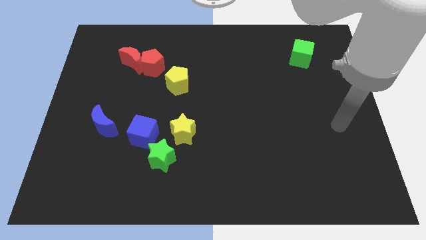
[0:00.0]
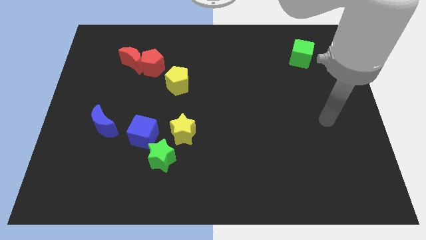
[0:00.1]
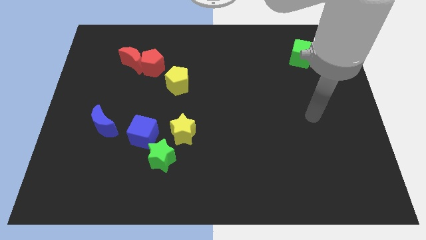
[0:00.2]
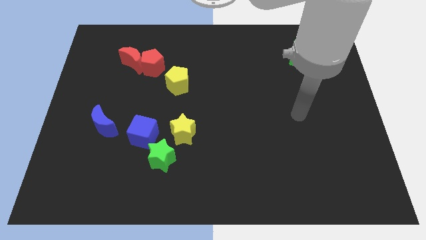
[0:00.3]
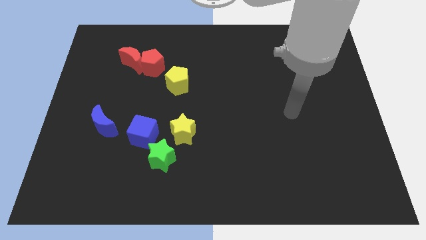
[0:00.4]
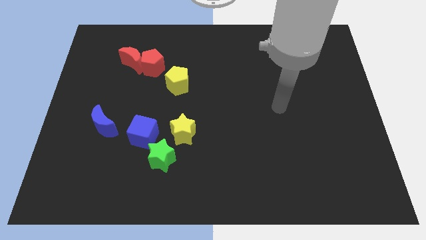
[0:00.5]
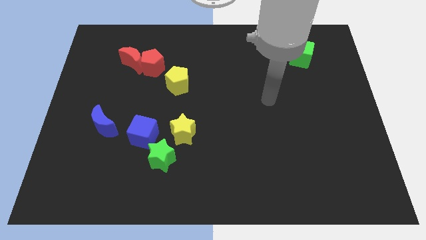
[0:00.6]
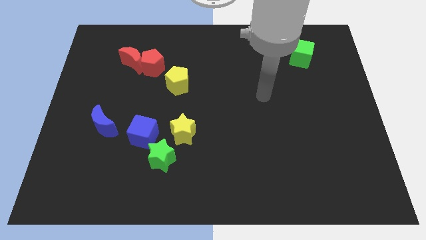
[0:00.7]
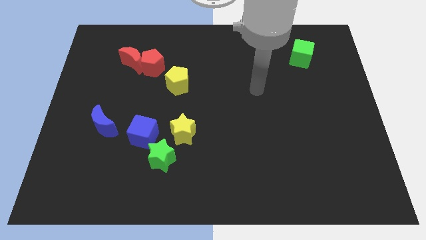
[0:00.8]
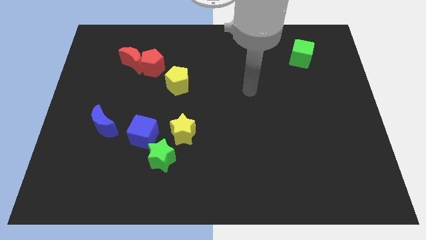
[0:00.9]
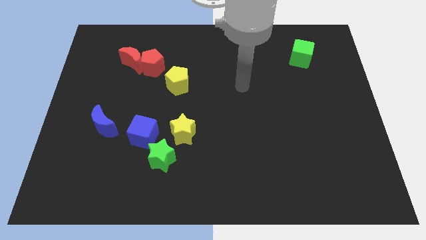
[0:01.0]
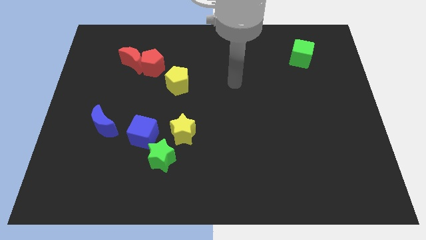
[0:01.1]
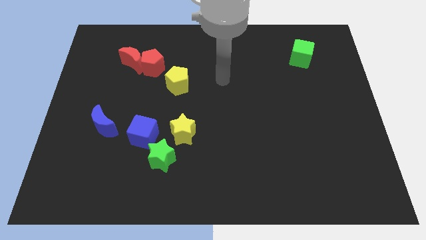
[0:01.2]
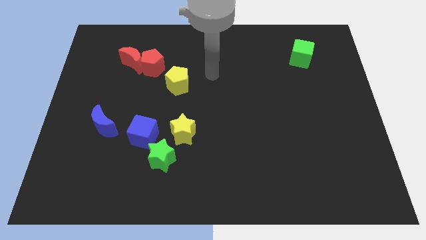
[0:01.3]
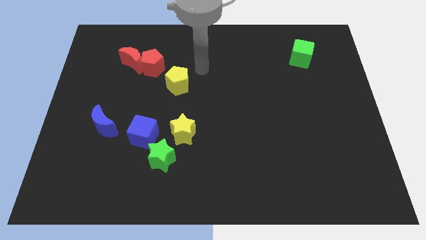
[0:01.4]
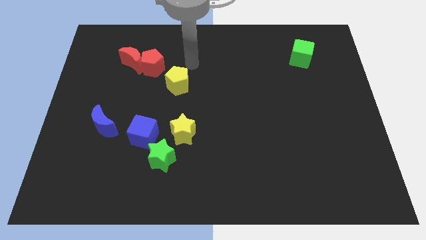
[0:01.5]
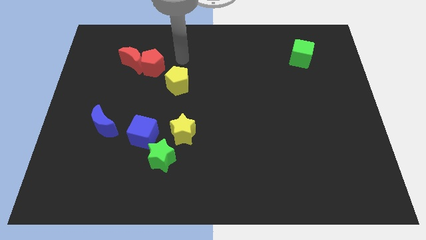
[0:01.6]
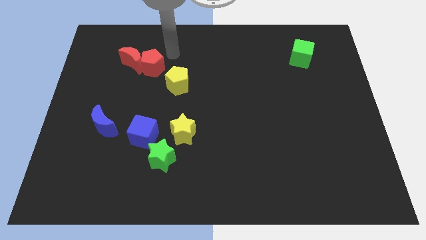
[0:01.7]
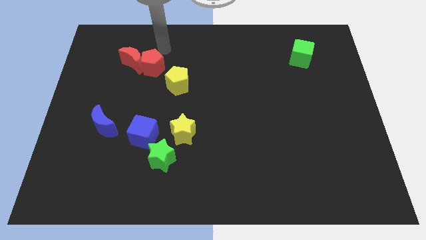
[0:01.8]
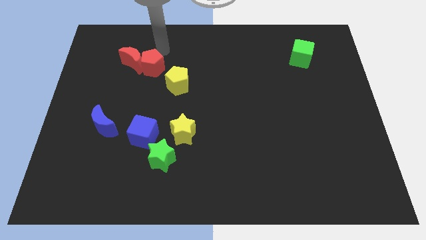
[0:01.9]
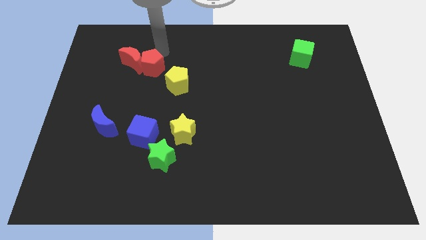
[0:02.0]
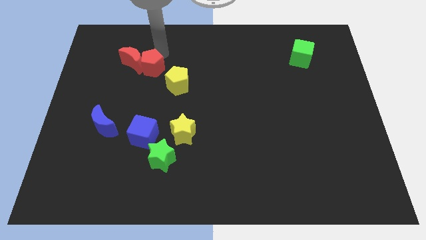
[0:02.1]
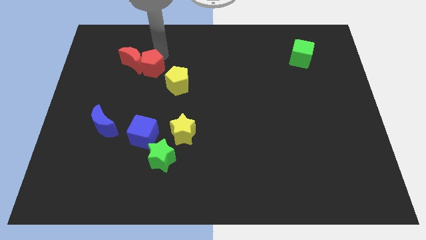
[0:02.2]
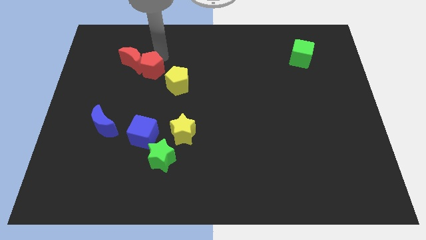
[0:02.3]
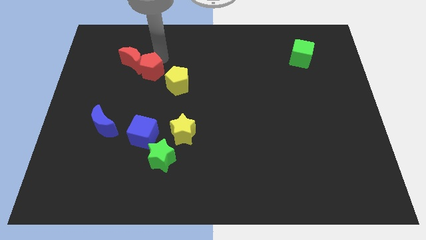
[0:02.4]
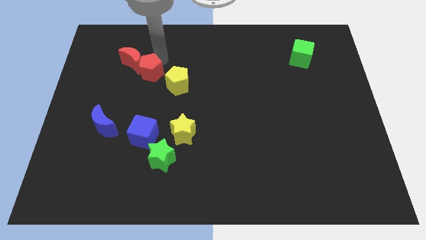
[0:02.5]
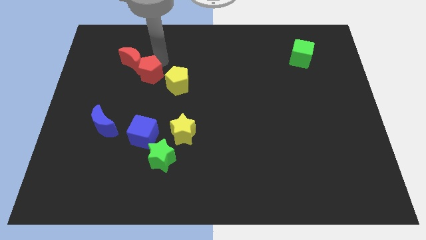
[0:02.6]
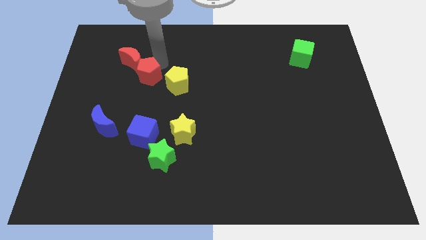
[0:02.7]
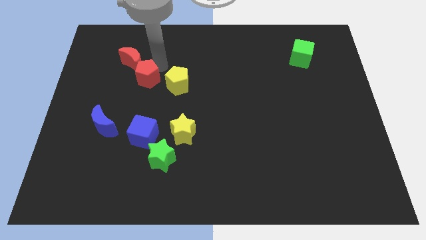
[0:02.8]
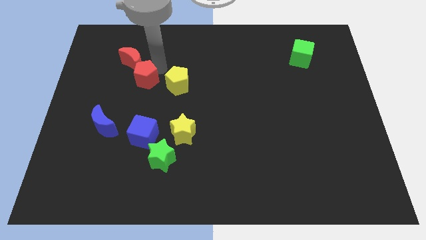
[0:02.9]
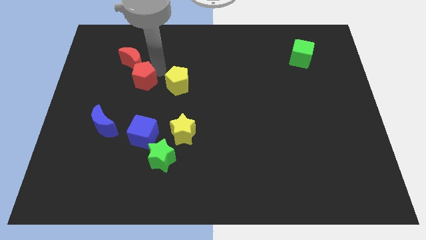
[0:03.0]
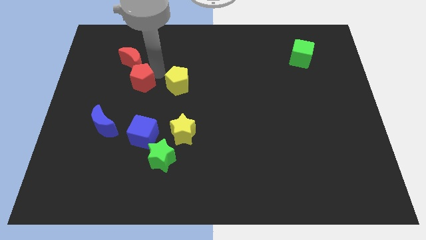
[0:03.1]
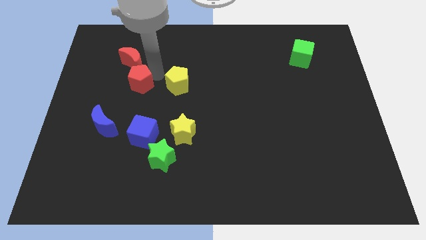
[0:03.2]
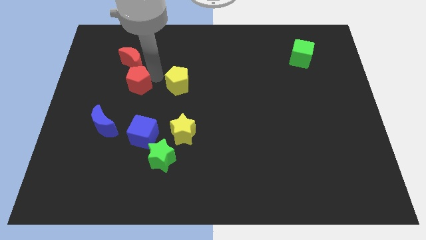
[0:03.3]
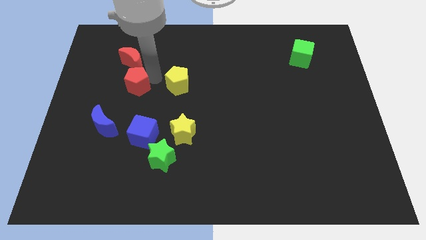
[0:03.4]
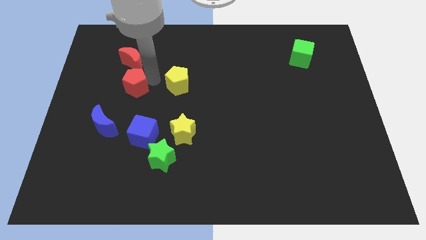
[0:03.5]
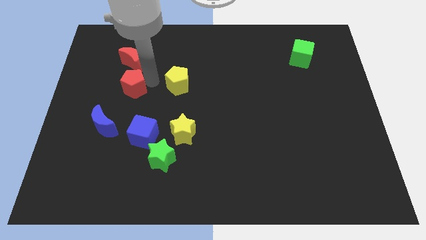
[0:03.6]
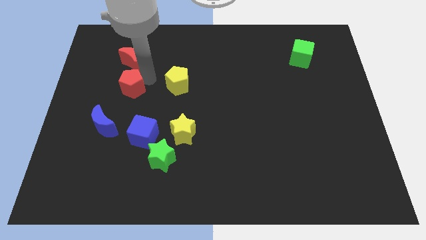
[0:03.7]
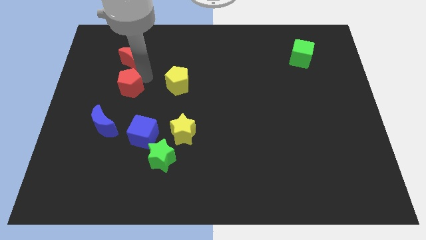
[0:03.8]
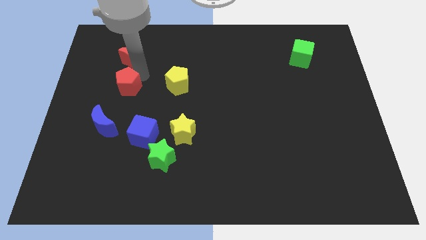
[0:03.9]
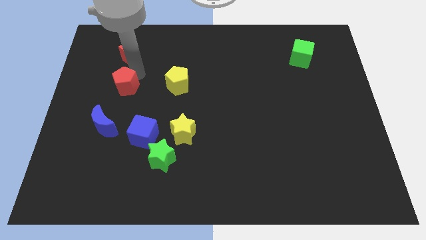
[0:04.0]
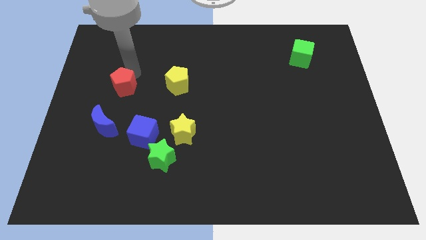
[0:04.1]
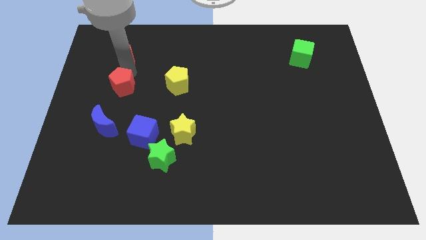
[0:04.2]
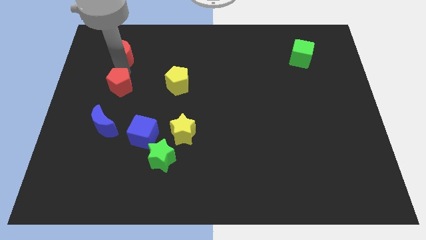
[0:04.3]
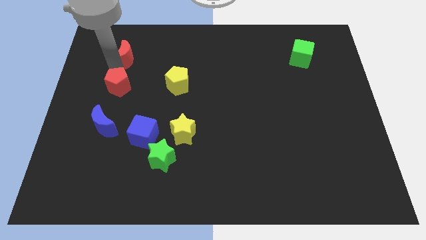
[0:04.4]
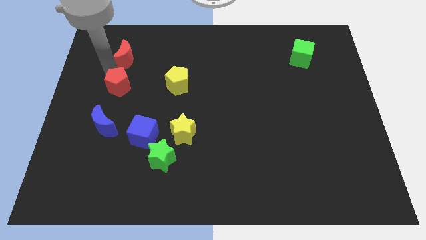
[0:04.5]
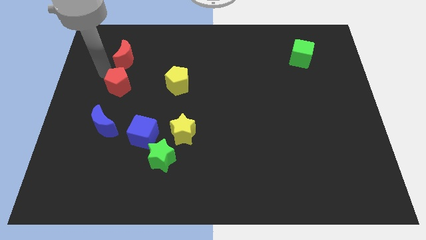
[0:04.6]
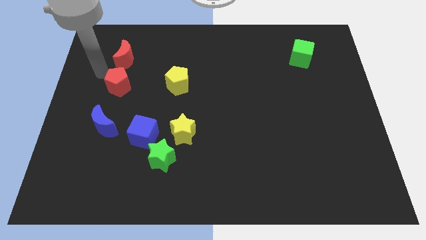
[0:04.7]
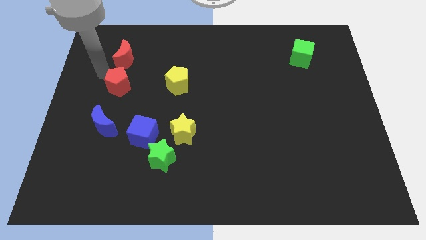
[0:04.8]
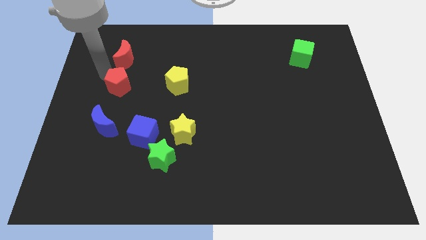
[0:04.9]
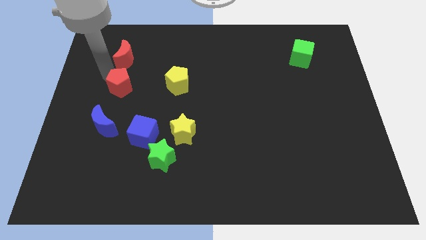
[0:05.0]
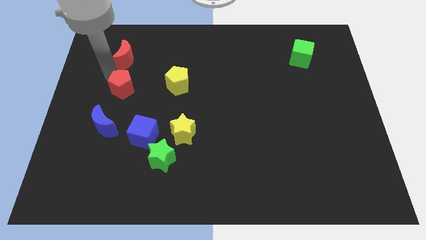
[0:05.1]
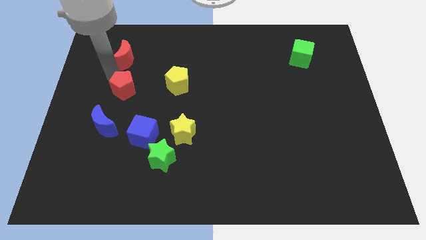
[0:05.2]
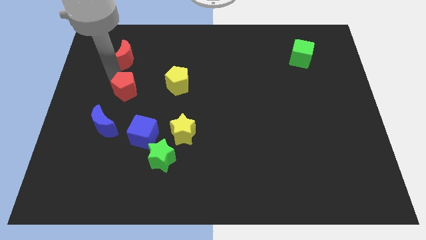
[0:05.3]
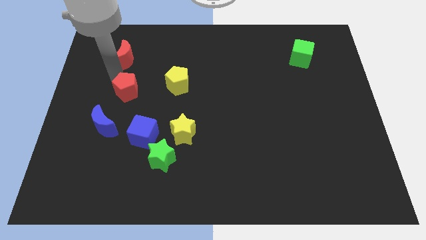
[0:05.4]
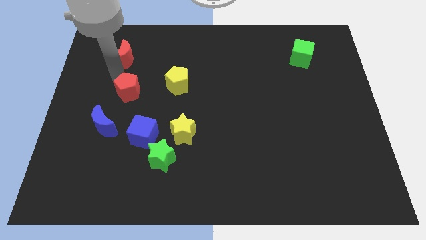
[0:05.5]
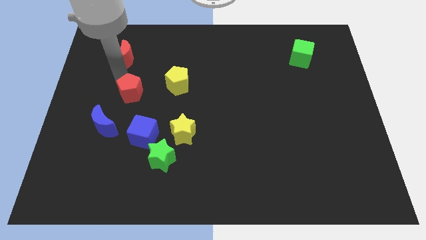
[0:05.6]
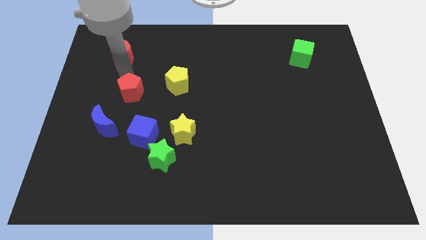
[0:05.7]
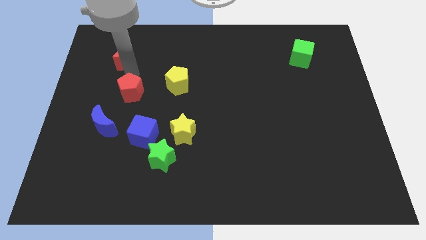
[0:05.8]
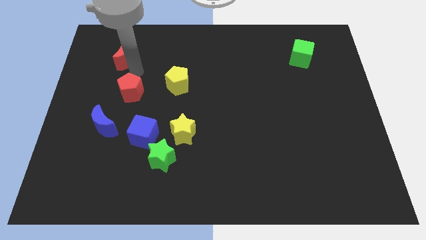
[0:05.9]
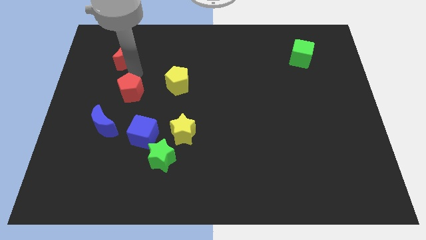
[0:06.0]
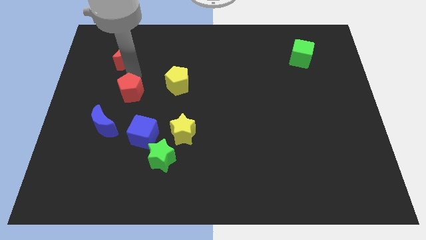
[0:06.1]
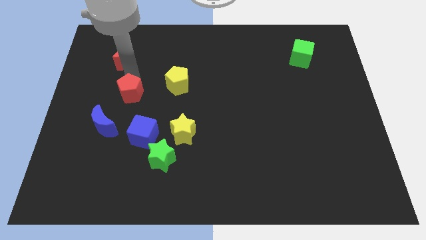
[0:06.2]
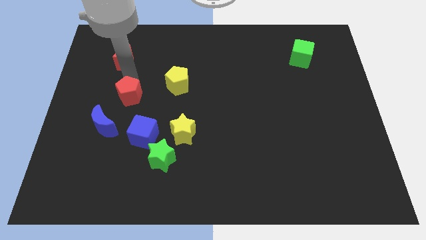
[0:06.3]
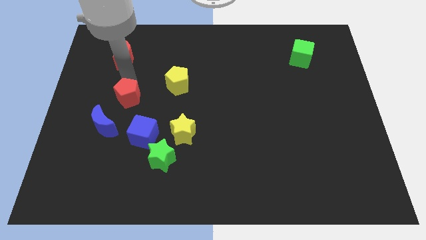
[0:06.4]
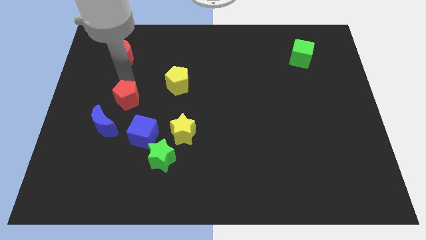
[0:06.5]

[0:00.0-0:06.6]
push the red pentagon diagonally up and to the left of the blue cube
